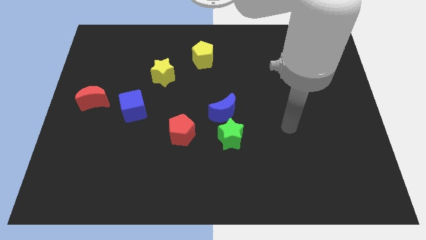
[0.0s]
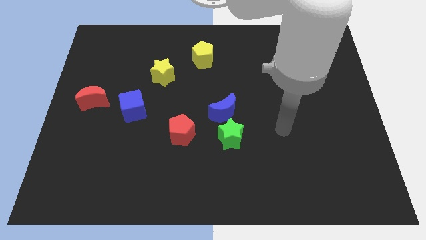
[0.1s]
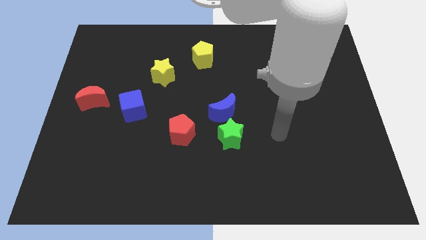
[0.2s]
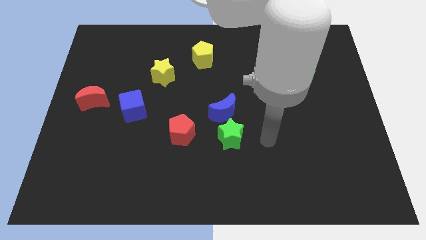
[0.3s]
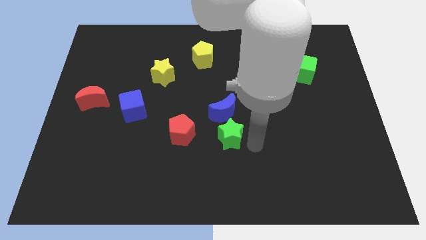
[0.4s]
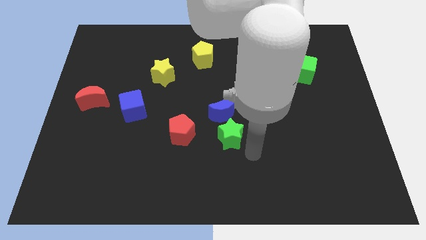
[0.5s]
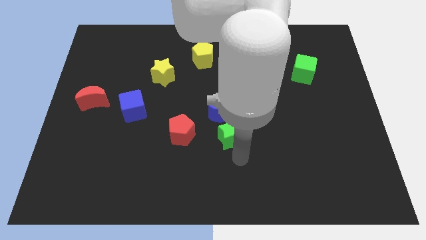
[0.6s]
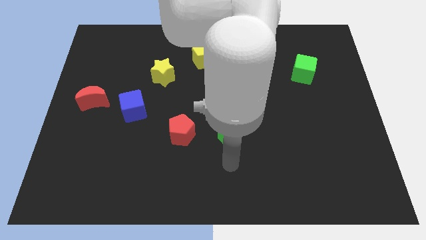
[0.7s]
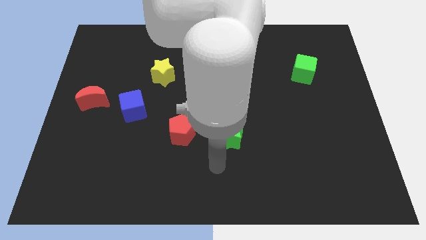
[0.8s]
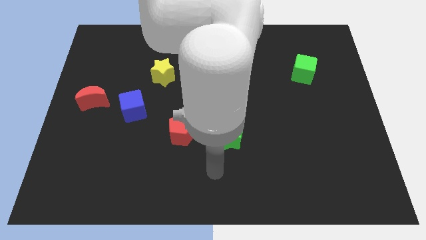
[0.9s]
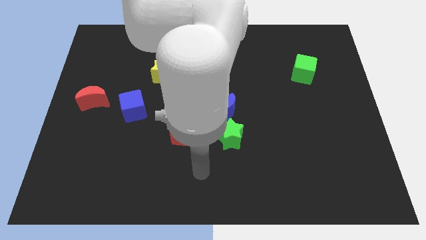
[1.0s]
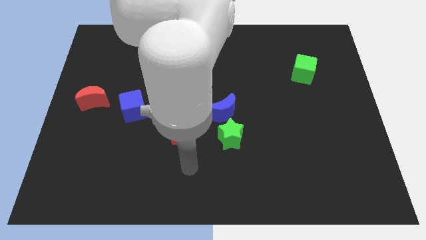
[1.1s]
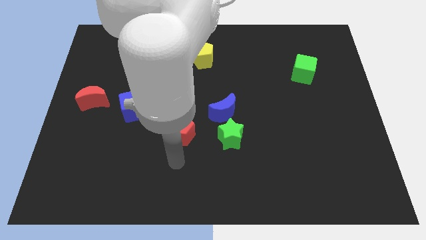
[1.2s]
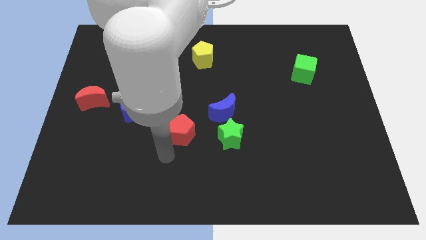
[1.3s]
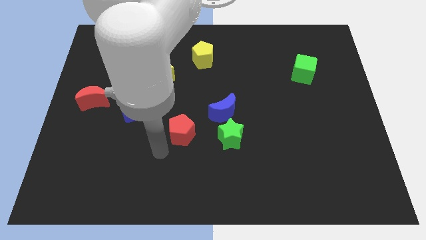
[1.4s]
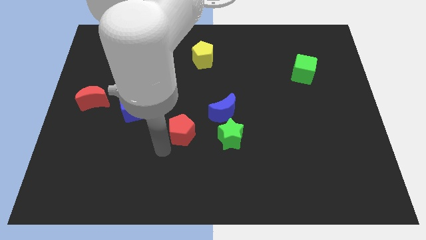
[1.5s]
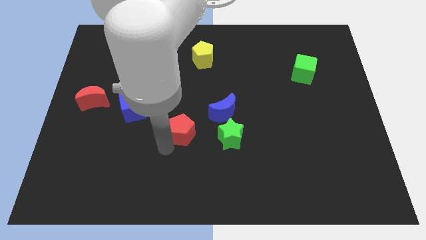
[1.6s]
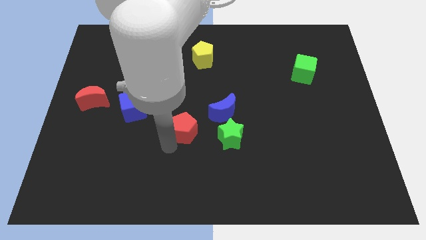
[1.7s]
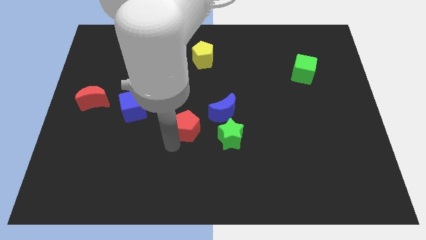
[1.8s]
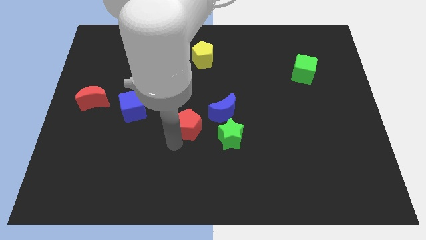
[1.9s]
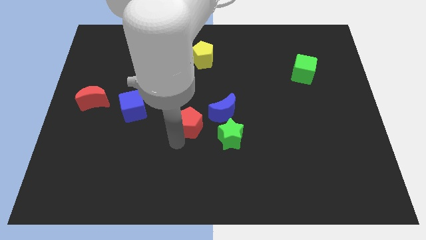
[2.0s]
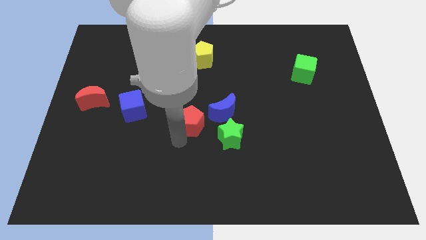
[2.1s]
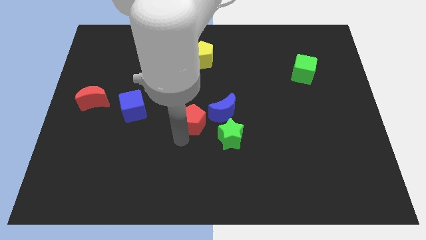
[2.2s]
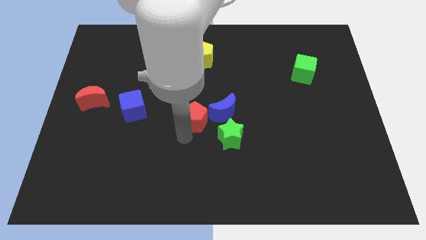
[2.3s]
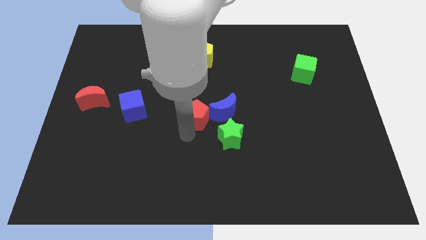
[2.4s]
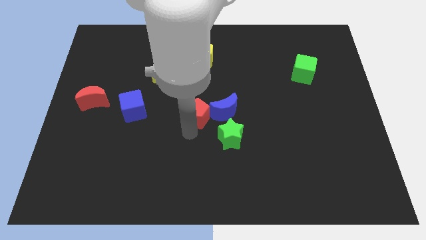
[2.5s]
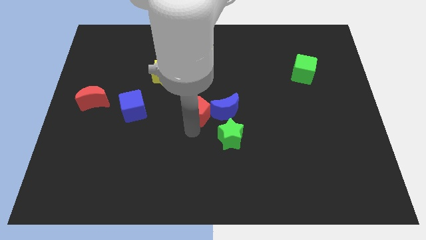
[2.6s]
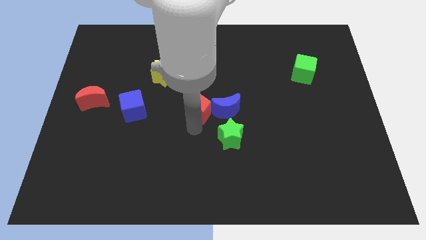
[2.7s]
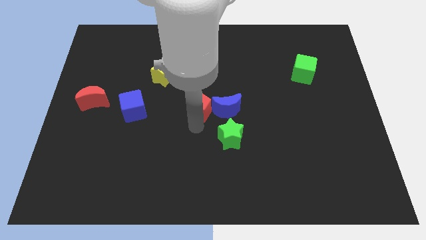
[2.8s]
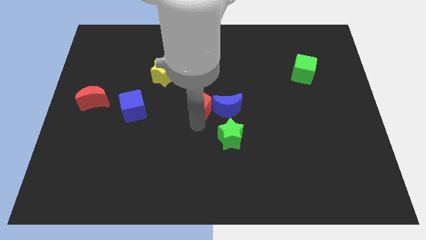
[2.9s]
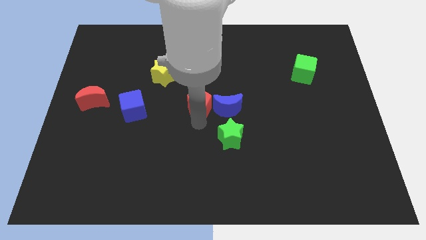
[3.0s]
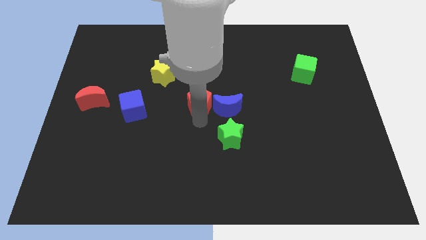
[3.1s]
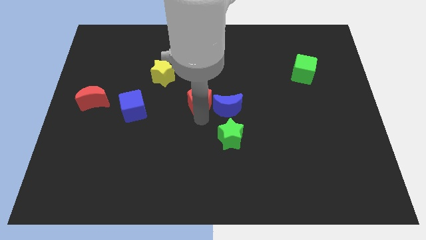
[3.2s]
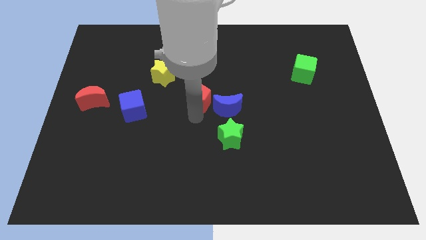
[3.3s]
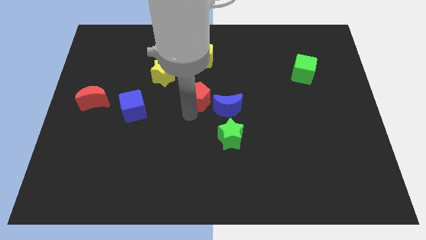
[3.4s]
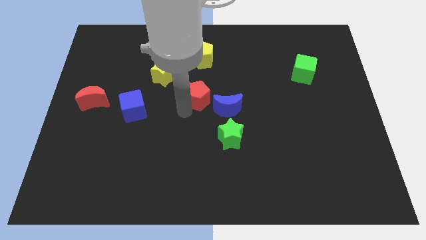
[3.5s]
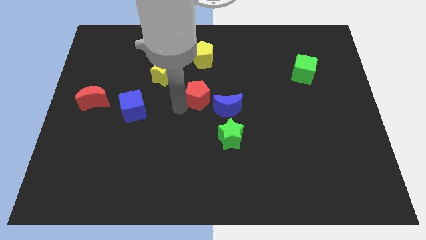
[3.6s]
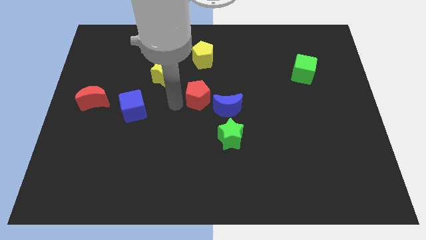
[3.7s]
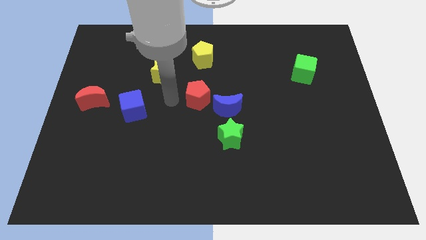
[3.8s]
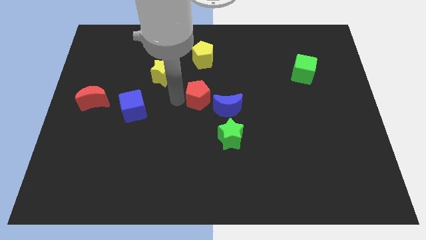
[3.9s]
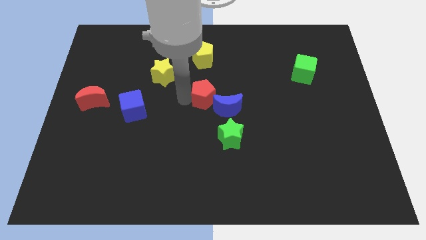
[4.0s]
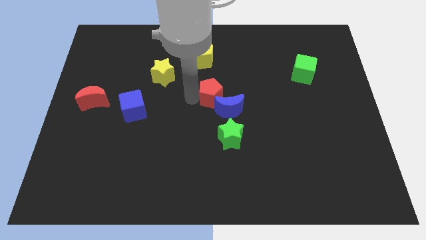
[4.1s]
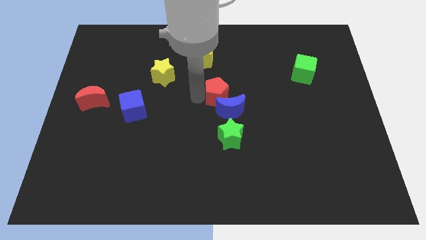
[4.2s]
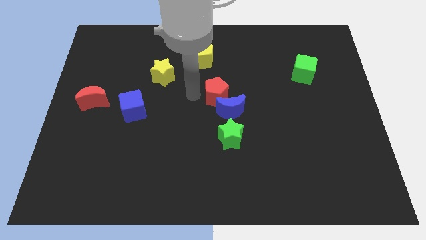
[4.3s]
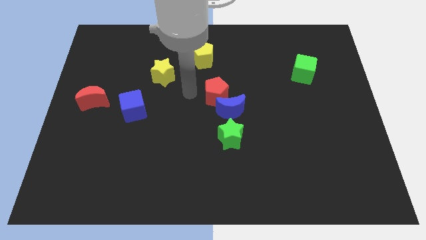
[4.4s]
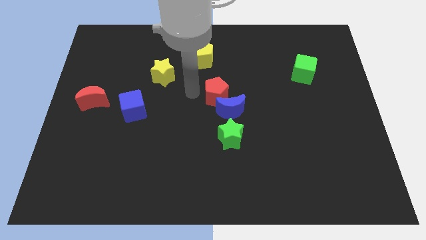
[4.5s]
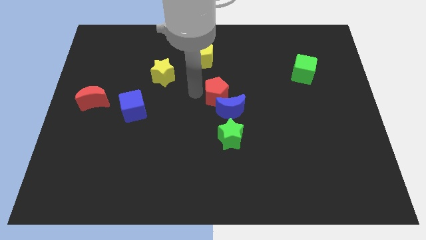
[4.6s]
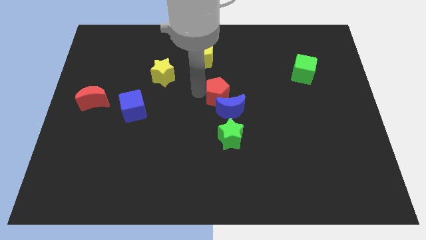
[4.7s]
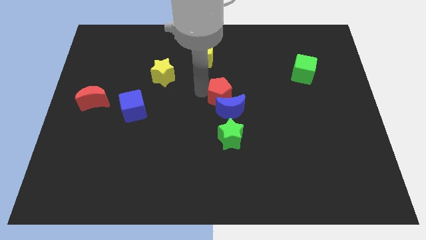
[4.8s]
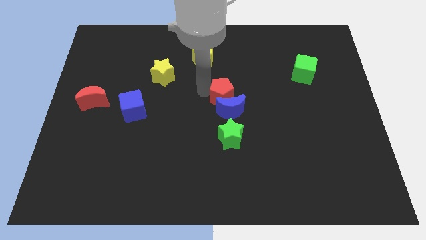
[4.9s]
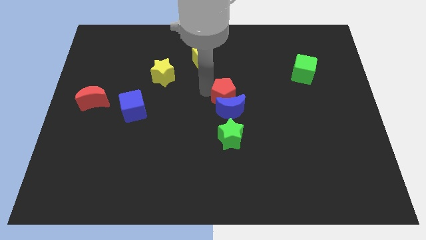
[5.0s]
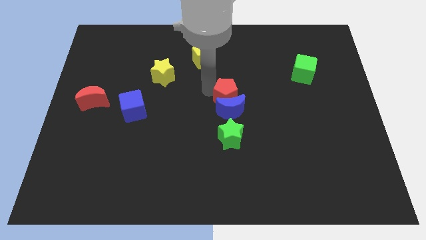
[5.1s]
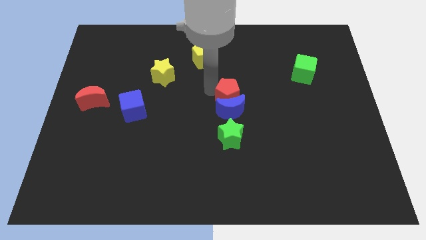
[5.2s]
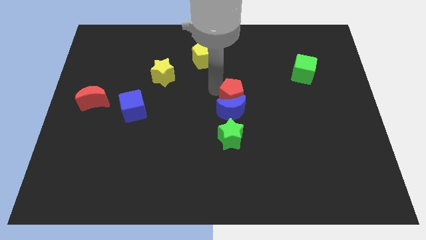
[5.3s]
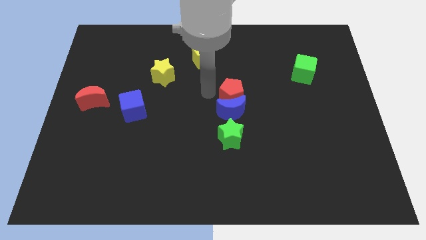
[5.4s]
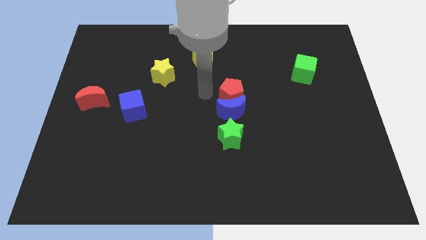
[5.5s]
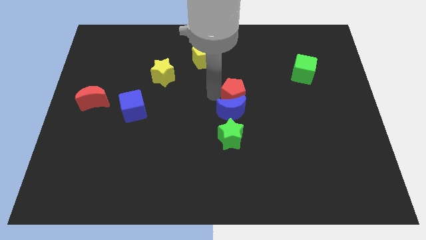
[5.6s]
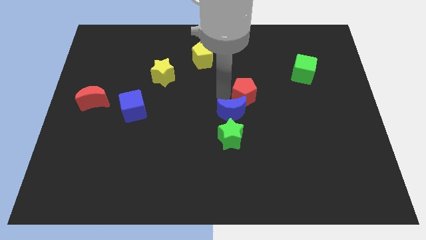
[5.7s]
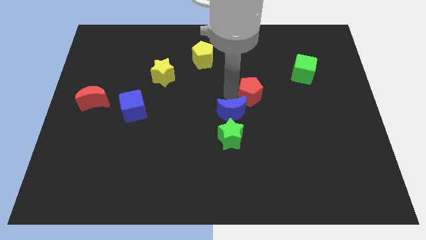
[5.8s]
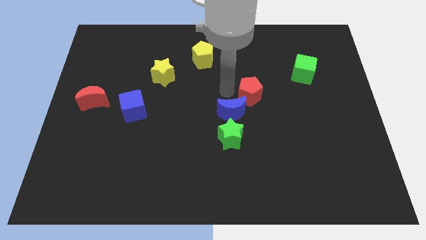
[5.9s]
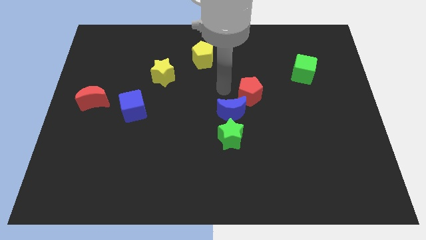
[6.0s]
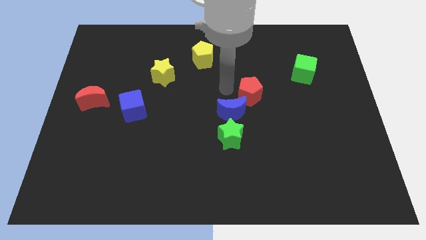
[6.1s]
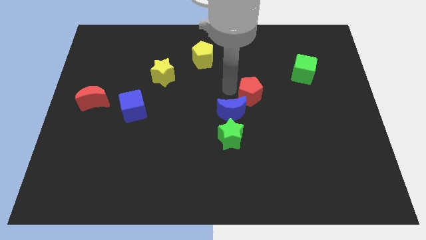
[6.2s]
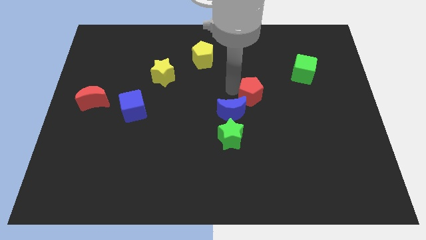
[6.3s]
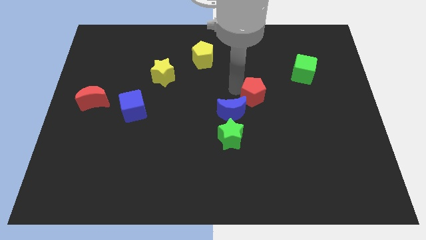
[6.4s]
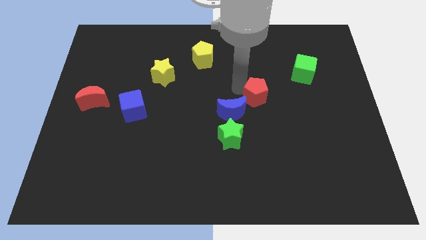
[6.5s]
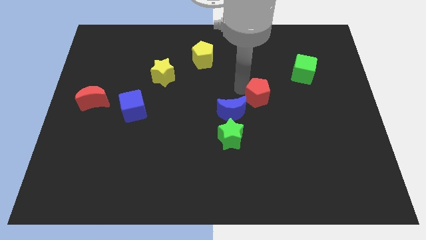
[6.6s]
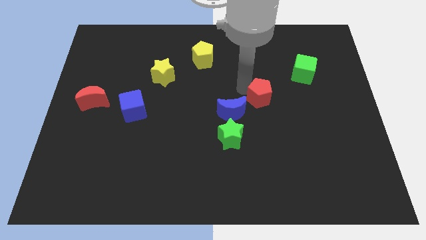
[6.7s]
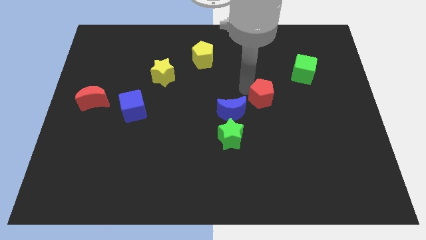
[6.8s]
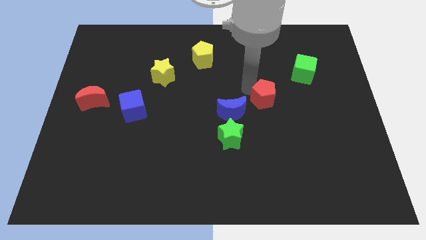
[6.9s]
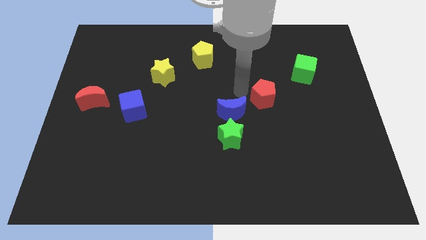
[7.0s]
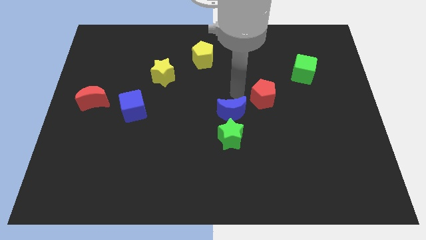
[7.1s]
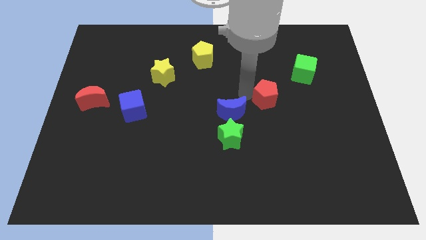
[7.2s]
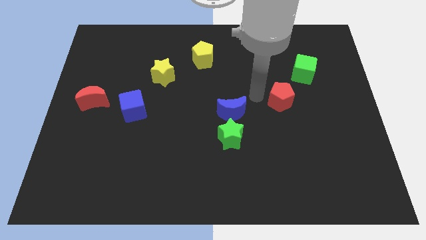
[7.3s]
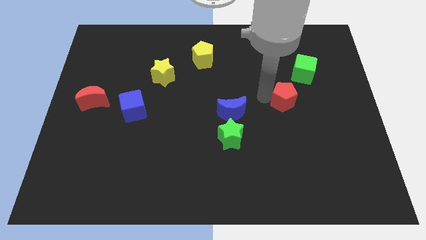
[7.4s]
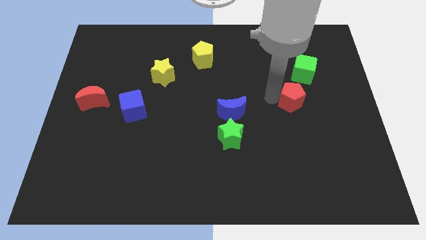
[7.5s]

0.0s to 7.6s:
put the red pentagon to the bottom side of the green cube

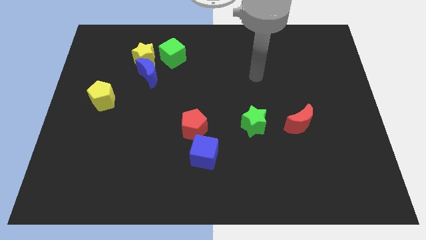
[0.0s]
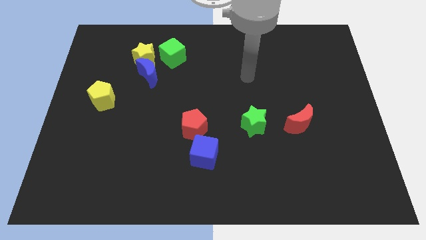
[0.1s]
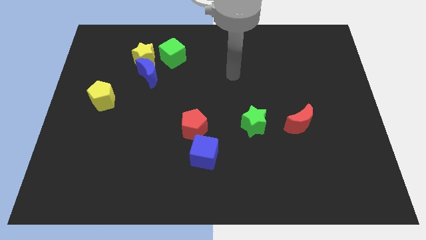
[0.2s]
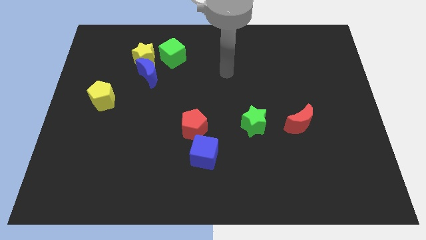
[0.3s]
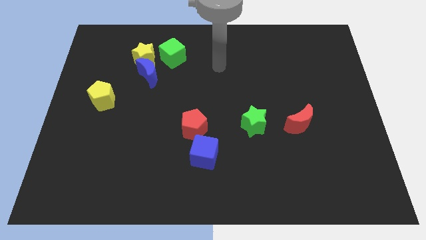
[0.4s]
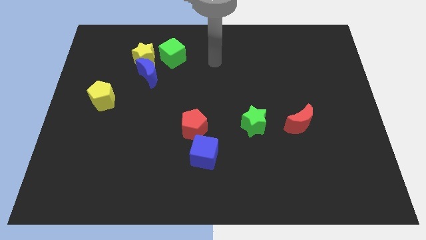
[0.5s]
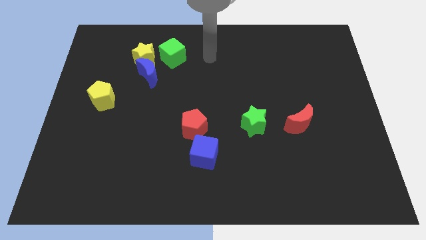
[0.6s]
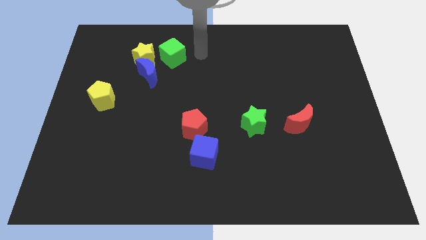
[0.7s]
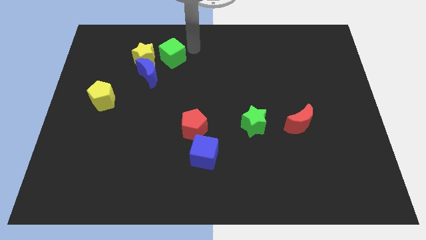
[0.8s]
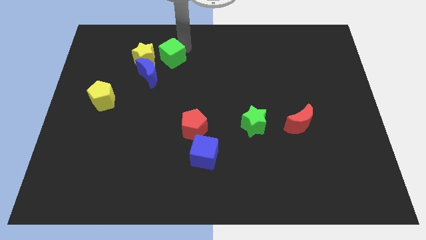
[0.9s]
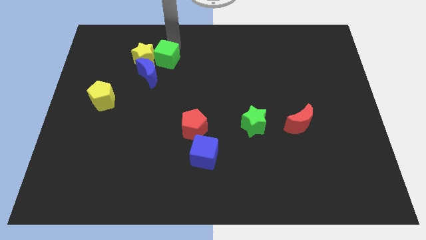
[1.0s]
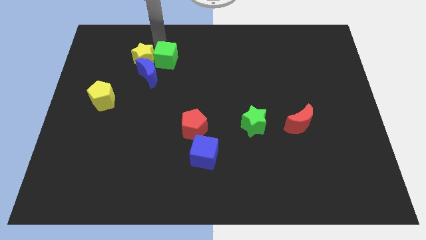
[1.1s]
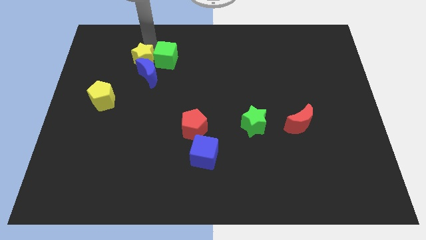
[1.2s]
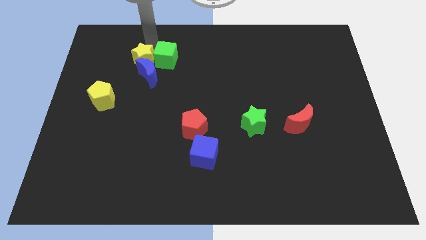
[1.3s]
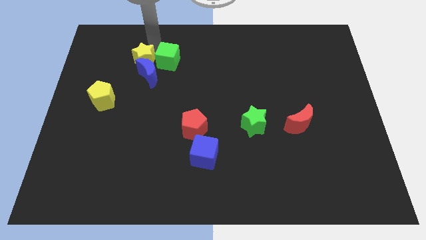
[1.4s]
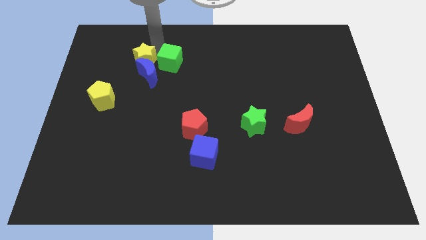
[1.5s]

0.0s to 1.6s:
push the green cube right of the blue moon
